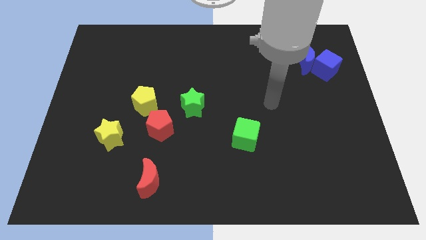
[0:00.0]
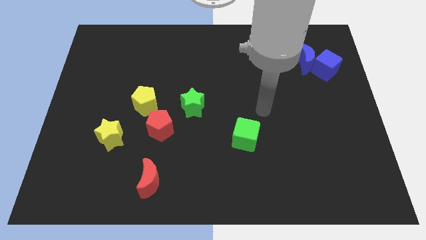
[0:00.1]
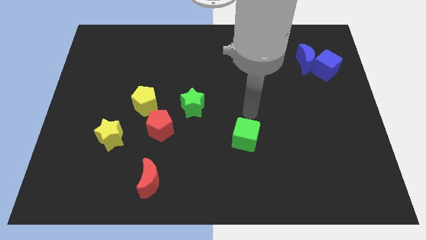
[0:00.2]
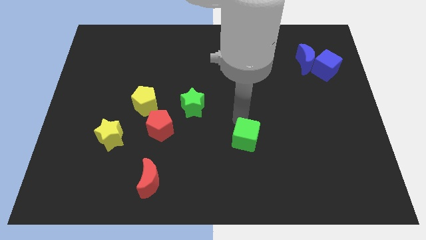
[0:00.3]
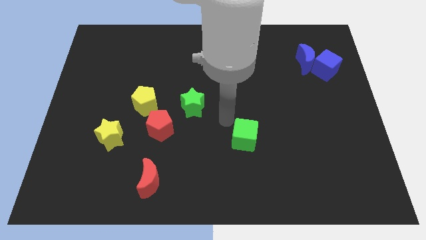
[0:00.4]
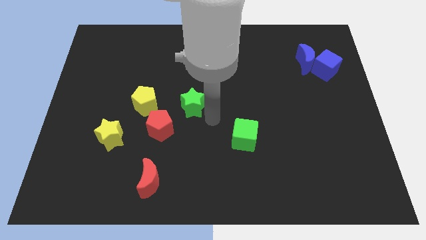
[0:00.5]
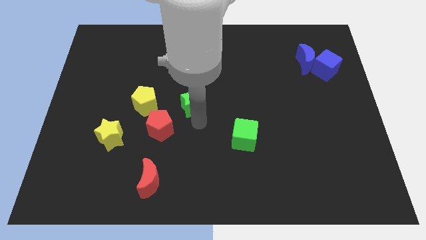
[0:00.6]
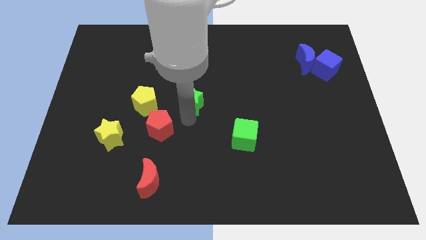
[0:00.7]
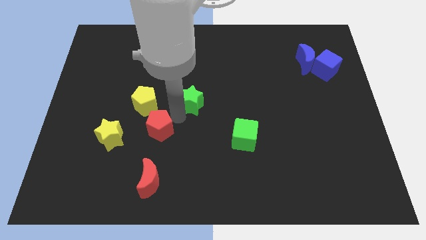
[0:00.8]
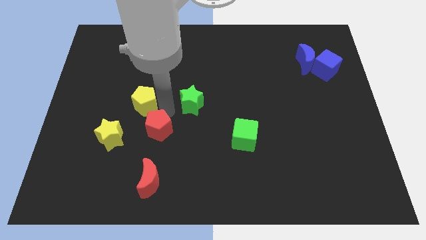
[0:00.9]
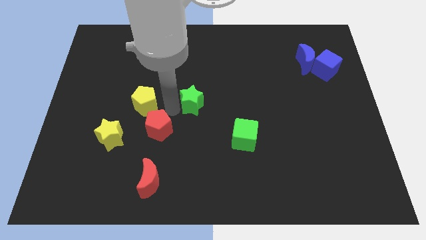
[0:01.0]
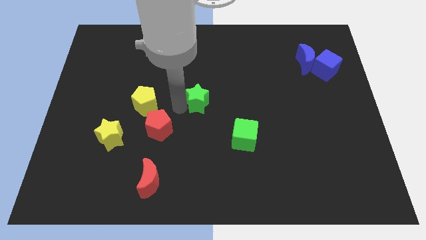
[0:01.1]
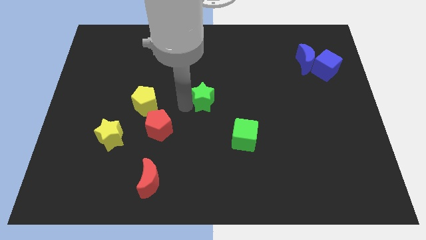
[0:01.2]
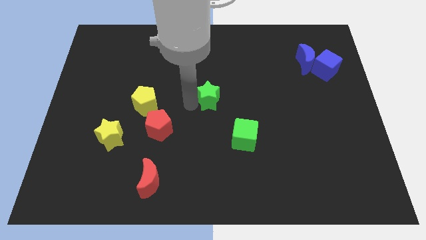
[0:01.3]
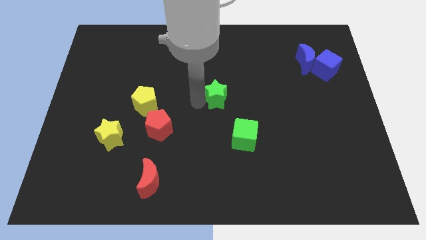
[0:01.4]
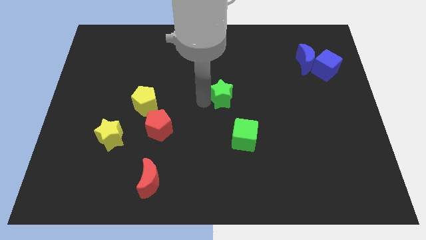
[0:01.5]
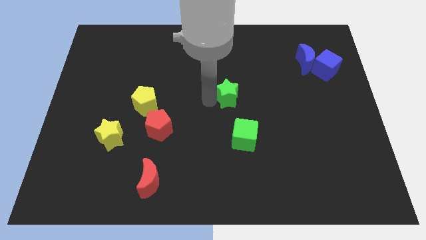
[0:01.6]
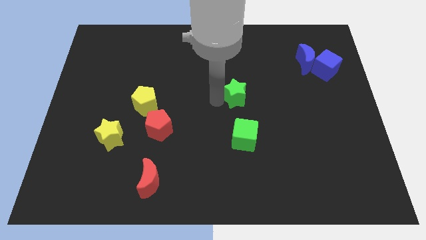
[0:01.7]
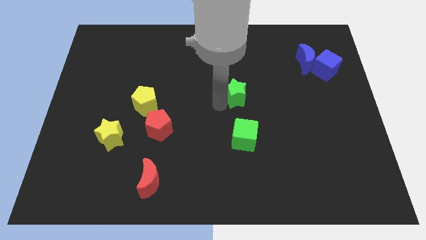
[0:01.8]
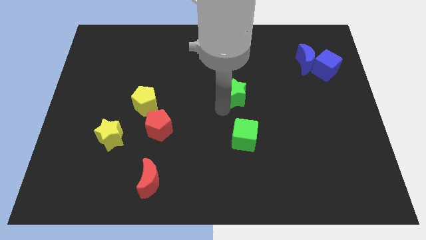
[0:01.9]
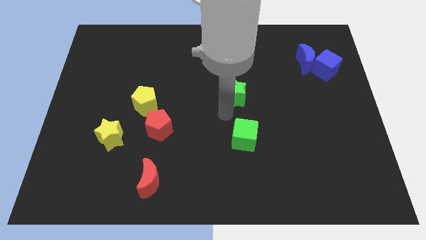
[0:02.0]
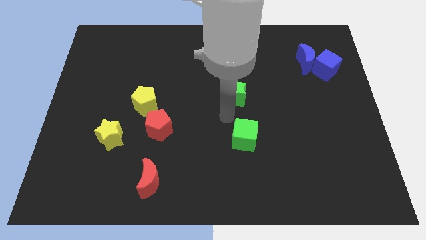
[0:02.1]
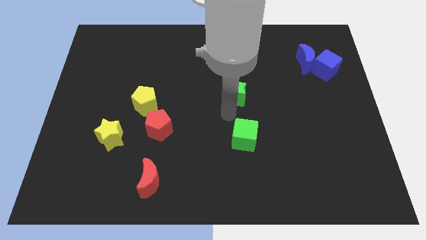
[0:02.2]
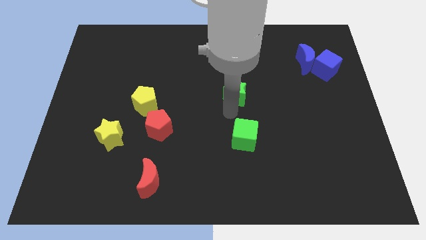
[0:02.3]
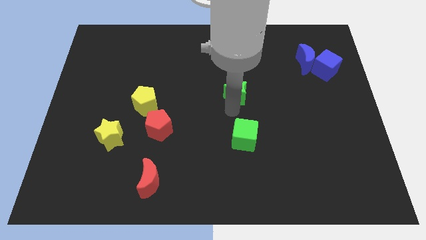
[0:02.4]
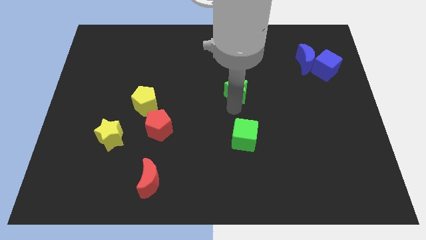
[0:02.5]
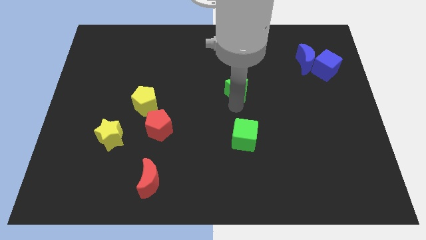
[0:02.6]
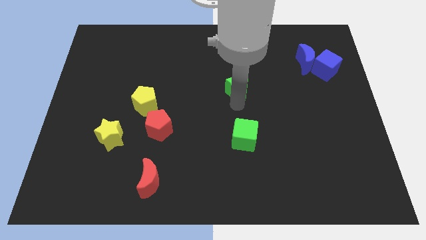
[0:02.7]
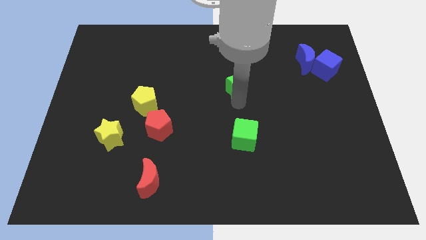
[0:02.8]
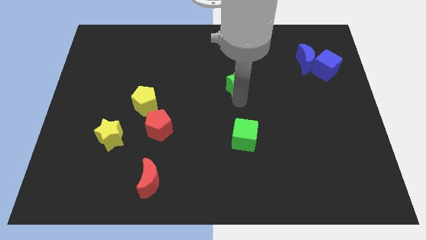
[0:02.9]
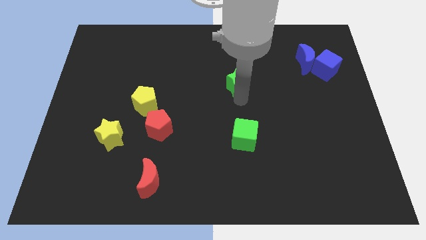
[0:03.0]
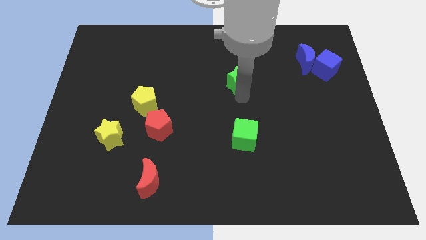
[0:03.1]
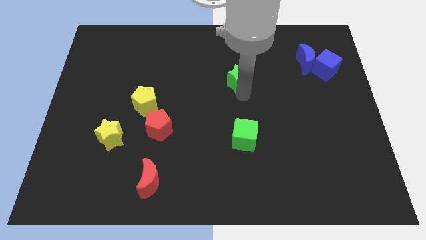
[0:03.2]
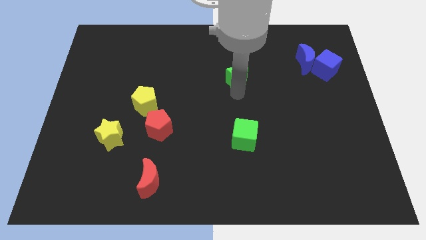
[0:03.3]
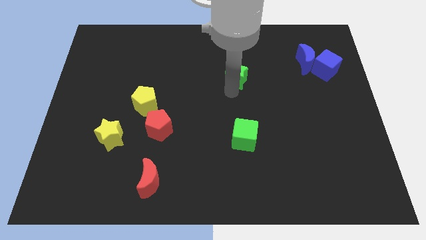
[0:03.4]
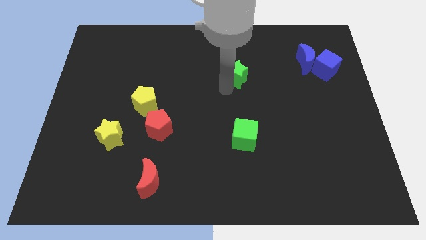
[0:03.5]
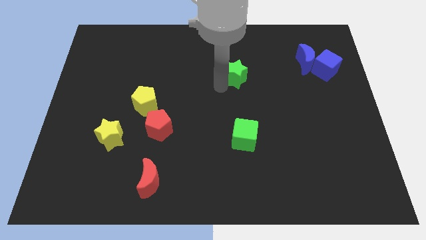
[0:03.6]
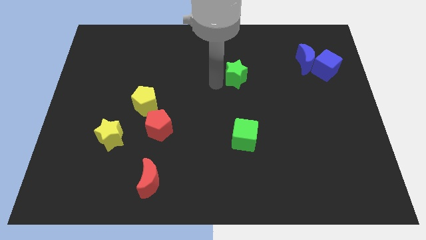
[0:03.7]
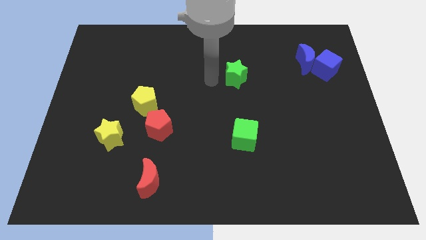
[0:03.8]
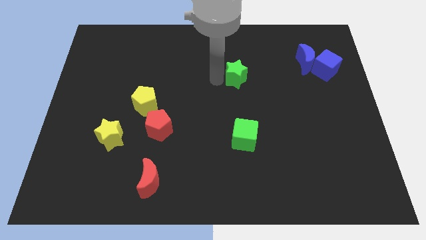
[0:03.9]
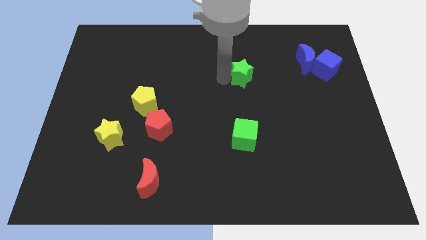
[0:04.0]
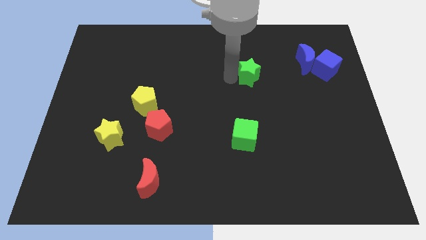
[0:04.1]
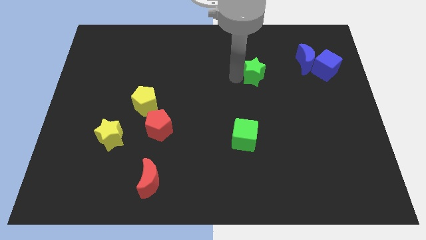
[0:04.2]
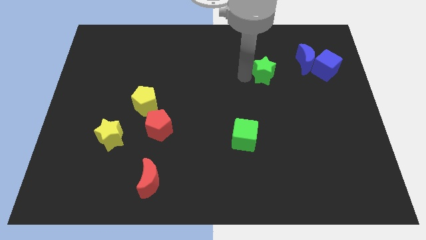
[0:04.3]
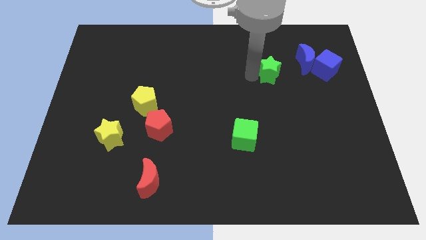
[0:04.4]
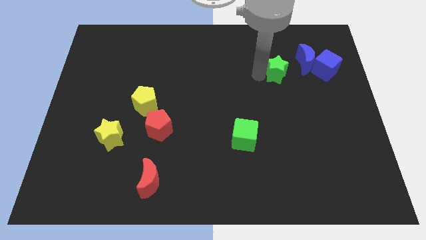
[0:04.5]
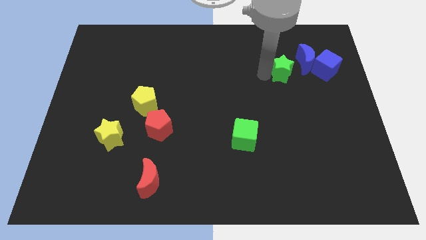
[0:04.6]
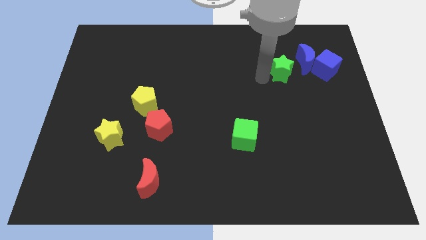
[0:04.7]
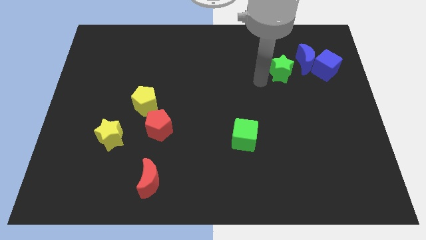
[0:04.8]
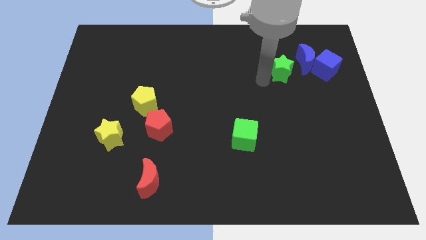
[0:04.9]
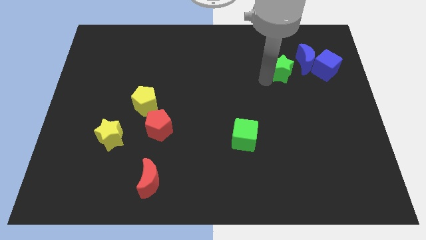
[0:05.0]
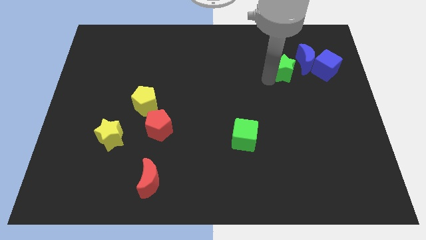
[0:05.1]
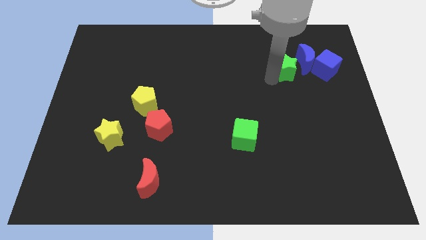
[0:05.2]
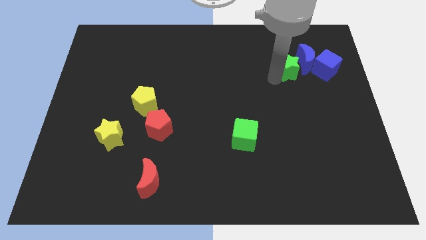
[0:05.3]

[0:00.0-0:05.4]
slide the green star towards the blue moon
